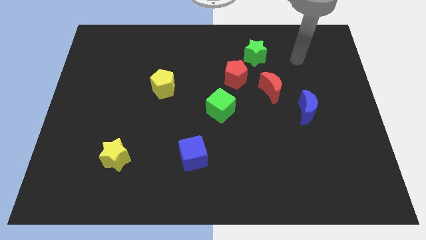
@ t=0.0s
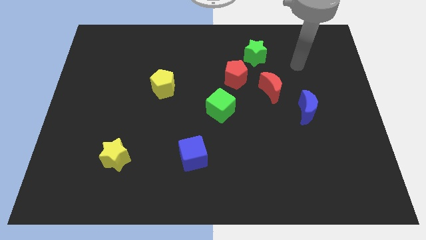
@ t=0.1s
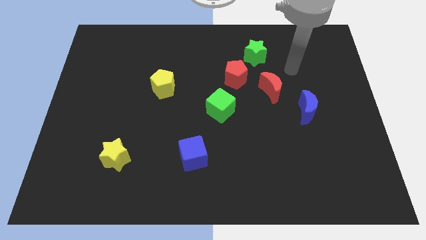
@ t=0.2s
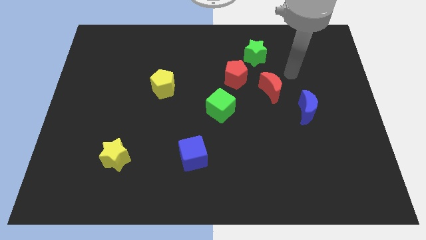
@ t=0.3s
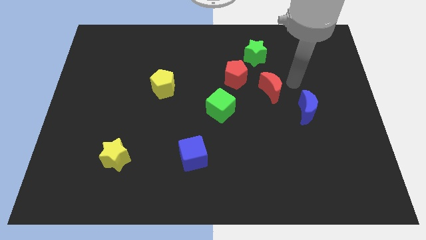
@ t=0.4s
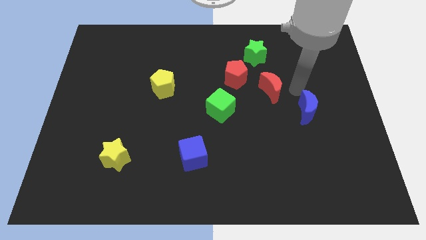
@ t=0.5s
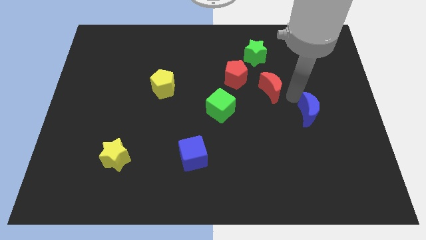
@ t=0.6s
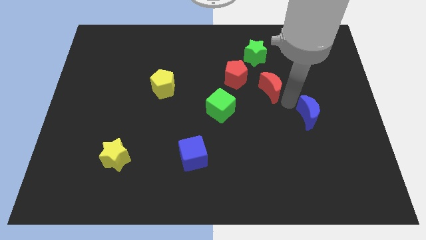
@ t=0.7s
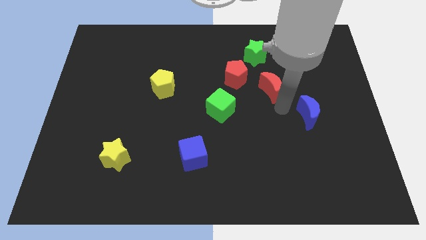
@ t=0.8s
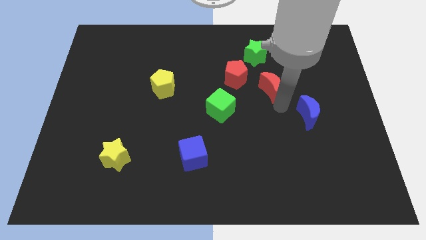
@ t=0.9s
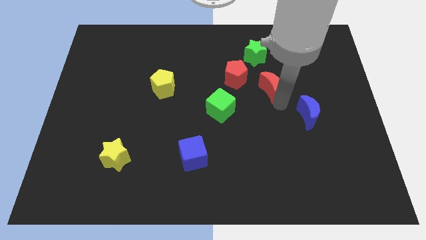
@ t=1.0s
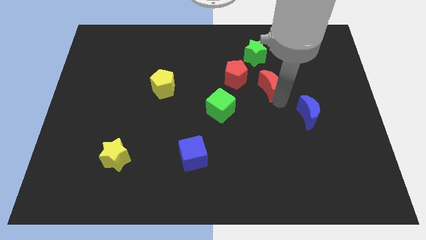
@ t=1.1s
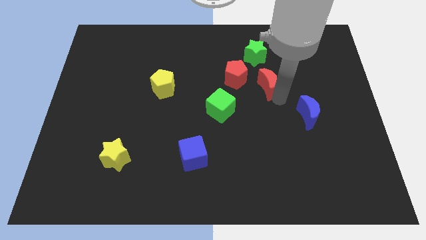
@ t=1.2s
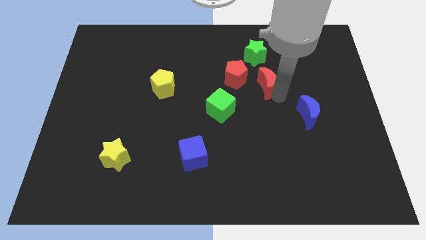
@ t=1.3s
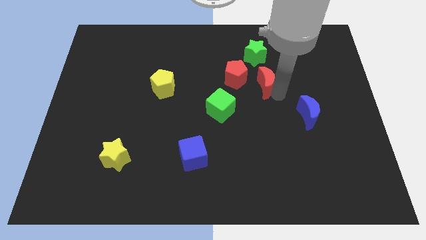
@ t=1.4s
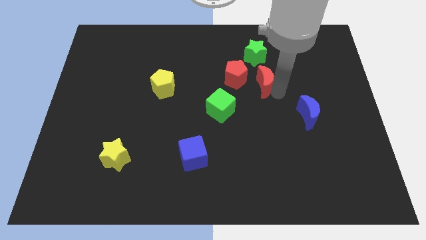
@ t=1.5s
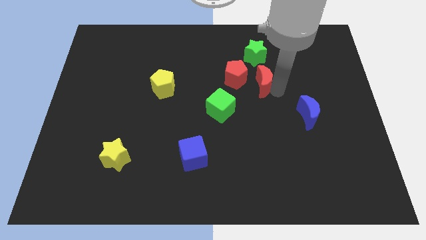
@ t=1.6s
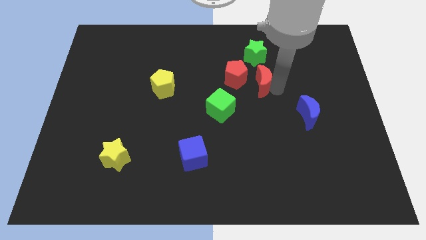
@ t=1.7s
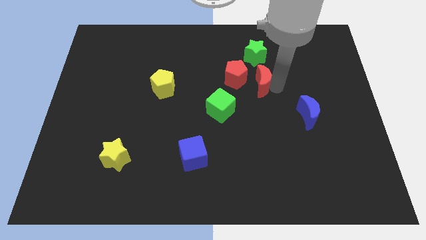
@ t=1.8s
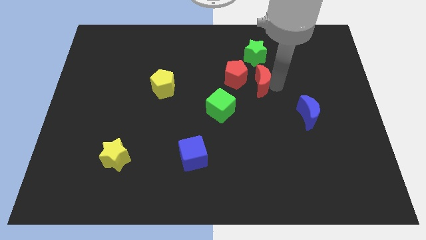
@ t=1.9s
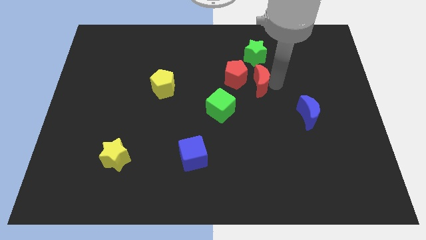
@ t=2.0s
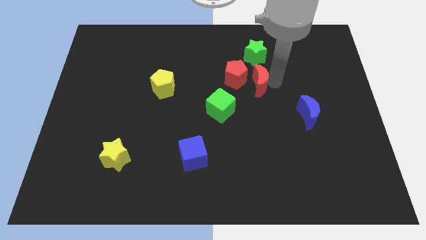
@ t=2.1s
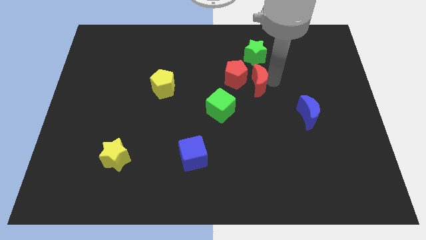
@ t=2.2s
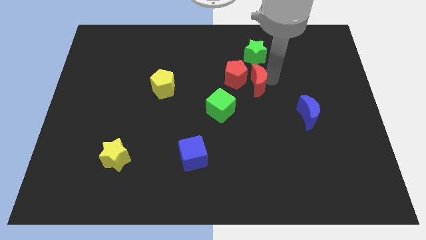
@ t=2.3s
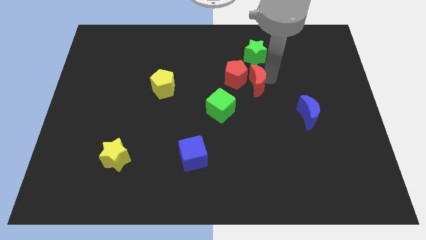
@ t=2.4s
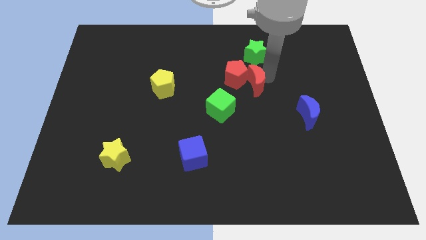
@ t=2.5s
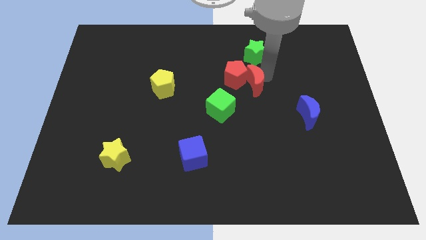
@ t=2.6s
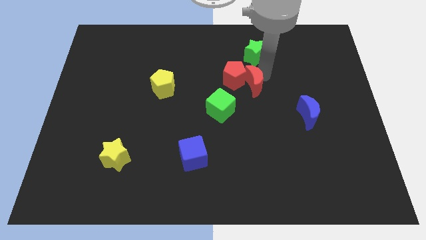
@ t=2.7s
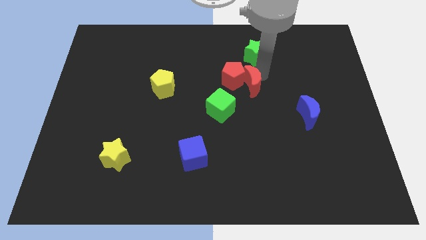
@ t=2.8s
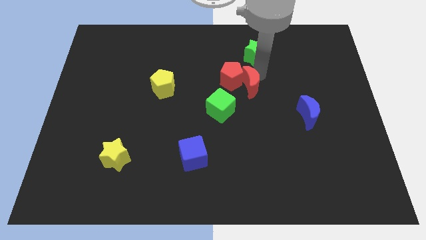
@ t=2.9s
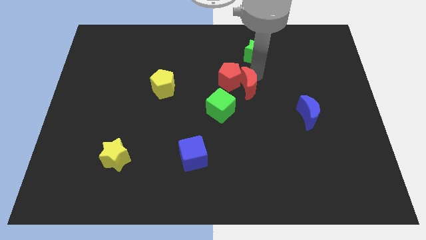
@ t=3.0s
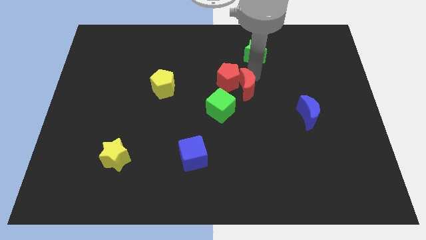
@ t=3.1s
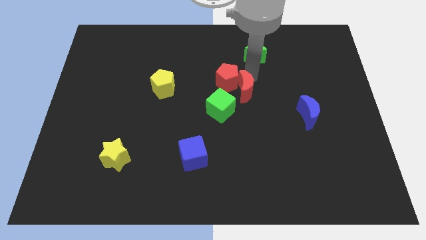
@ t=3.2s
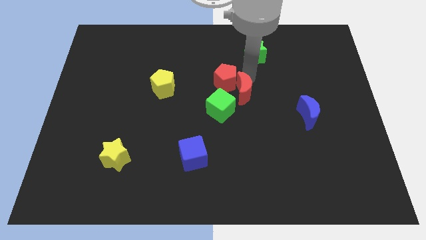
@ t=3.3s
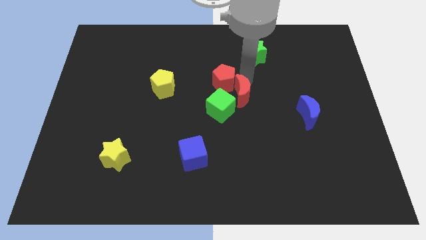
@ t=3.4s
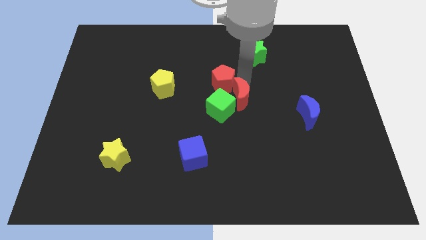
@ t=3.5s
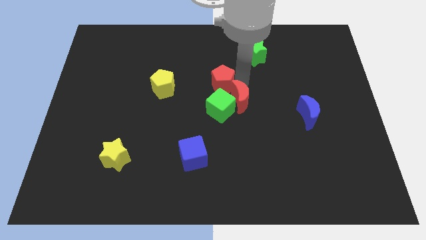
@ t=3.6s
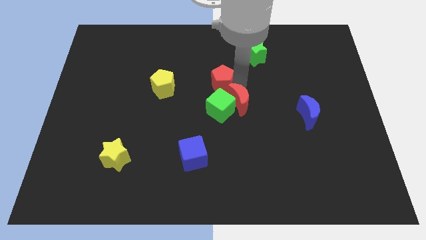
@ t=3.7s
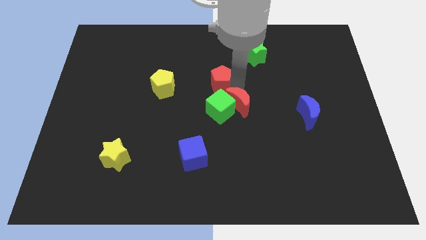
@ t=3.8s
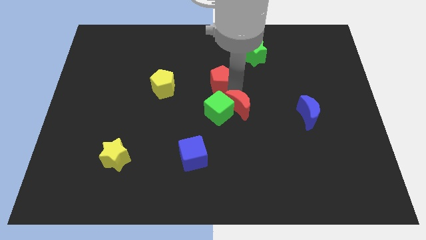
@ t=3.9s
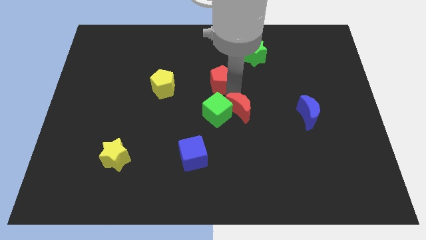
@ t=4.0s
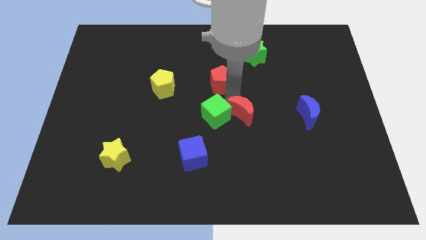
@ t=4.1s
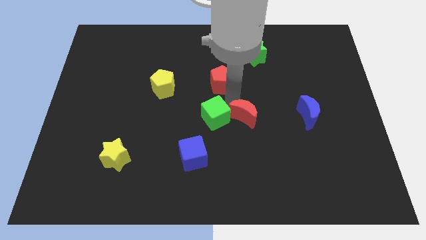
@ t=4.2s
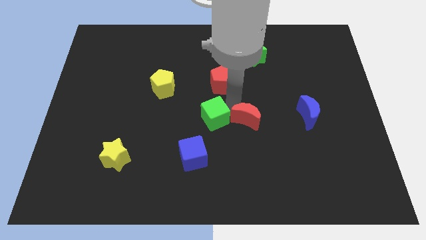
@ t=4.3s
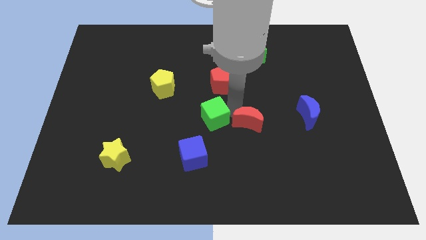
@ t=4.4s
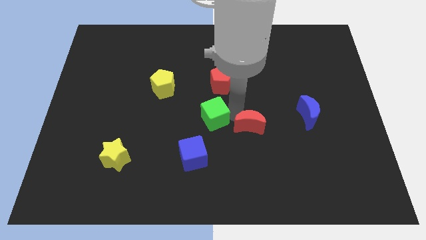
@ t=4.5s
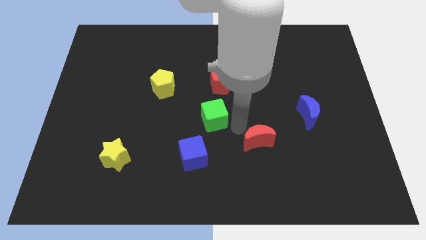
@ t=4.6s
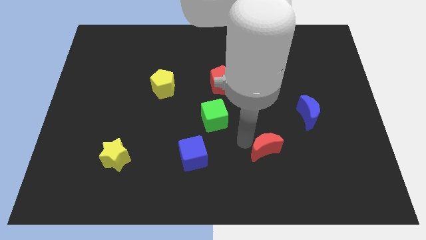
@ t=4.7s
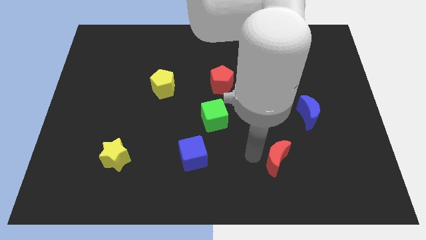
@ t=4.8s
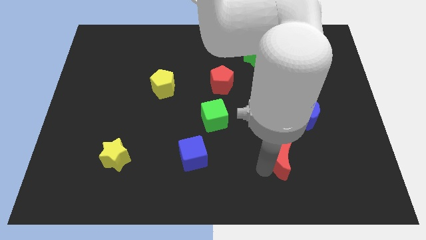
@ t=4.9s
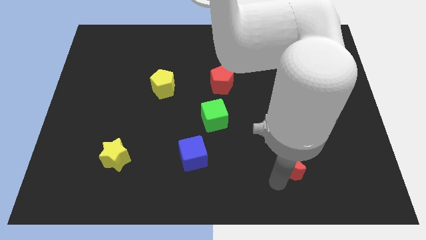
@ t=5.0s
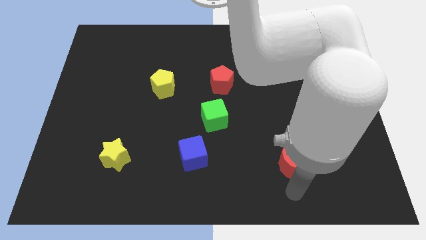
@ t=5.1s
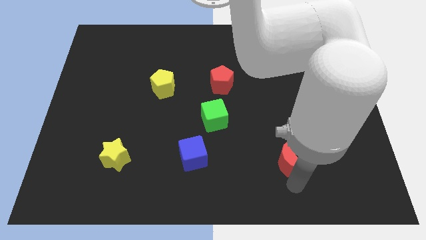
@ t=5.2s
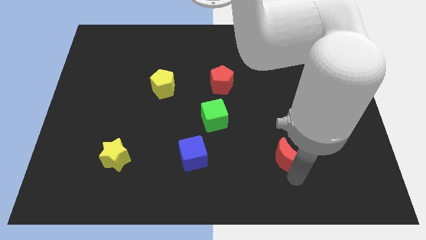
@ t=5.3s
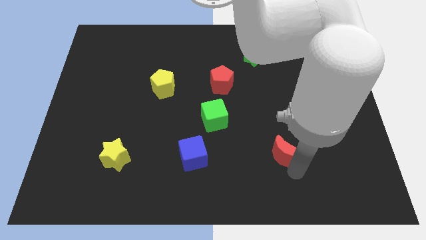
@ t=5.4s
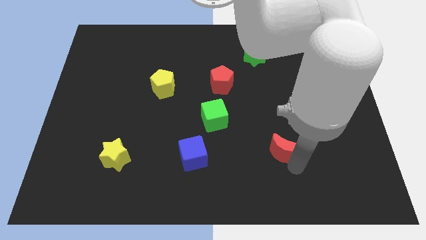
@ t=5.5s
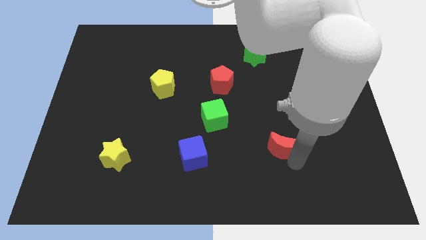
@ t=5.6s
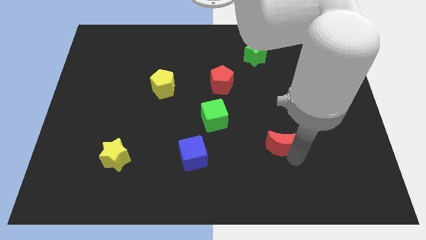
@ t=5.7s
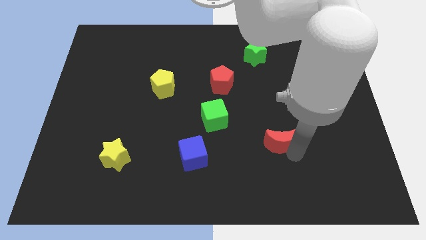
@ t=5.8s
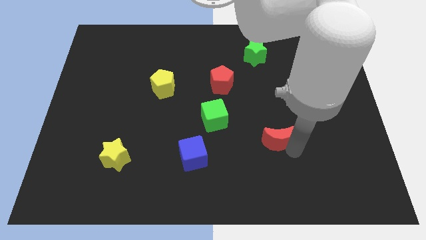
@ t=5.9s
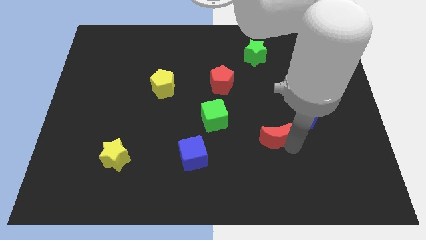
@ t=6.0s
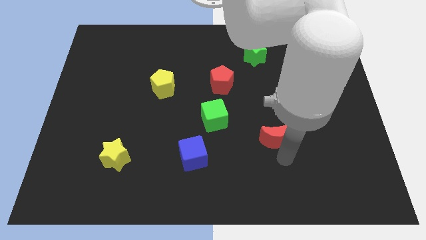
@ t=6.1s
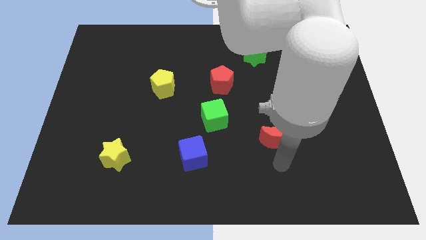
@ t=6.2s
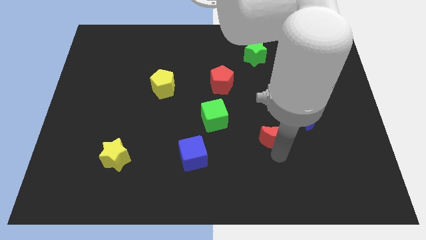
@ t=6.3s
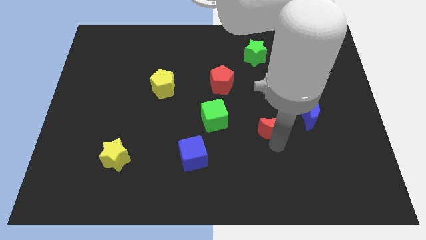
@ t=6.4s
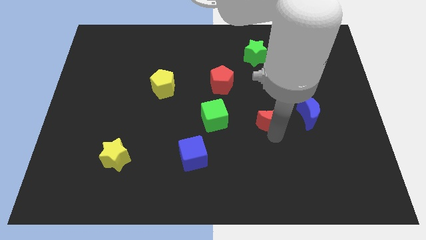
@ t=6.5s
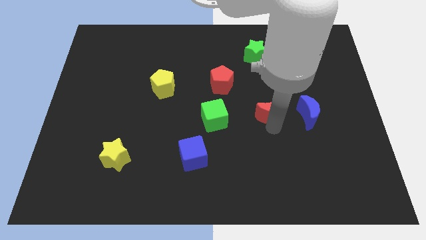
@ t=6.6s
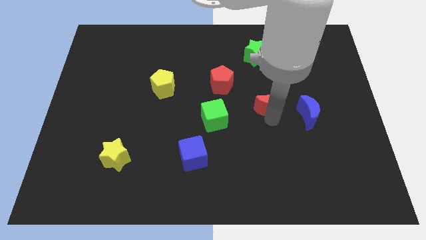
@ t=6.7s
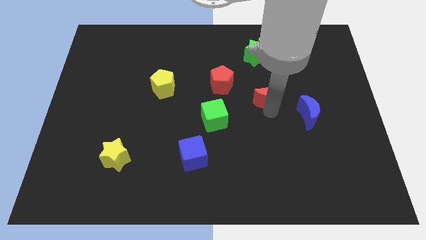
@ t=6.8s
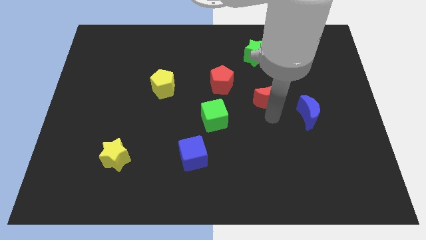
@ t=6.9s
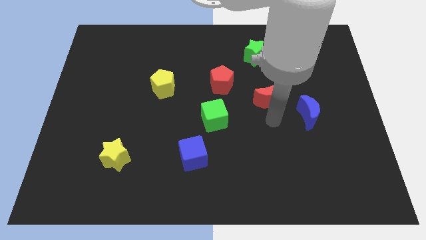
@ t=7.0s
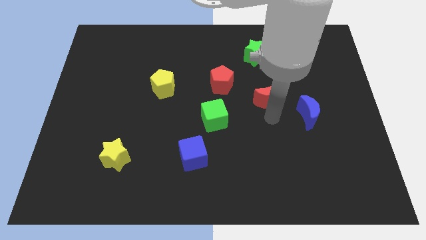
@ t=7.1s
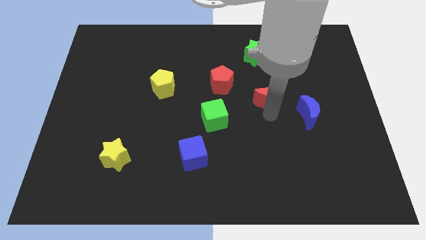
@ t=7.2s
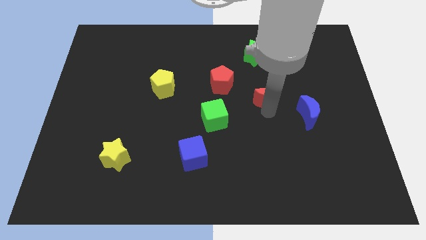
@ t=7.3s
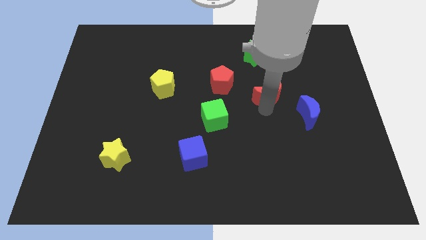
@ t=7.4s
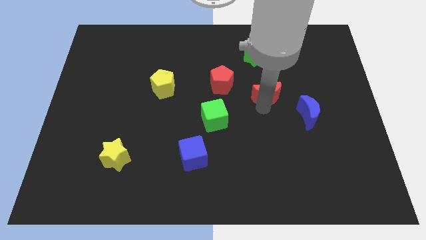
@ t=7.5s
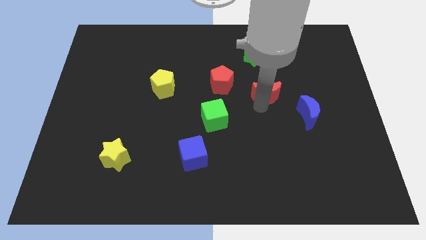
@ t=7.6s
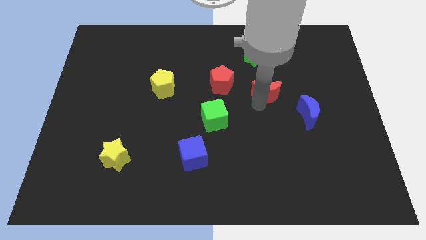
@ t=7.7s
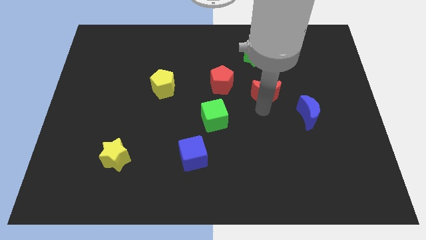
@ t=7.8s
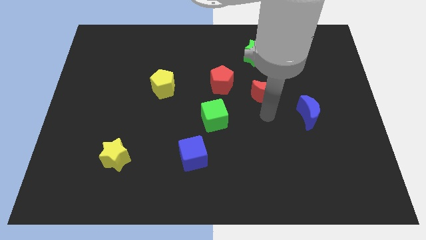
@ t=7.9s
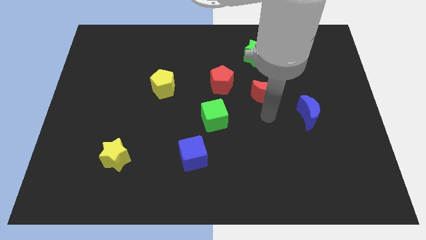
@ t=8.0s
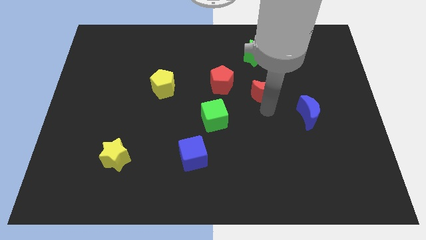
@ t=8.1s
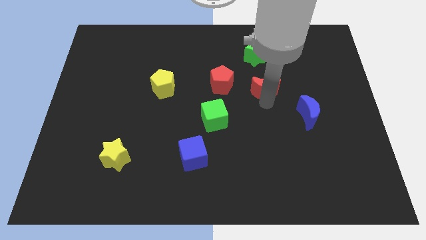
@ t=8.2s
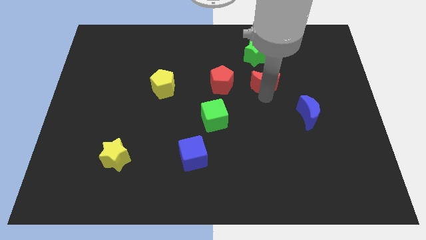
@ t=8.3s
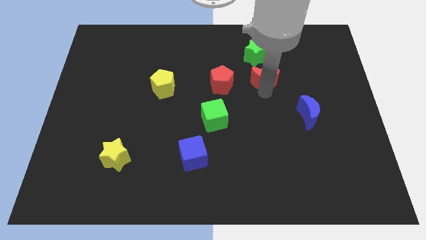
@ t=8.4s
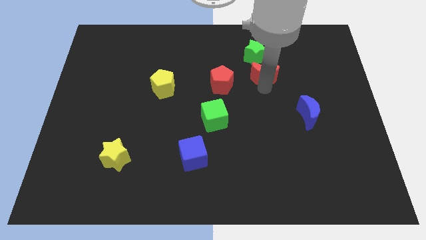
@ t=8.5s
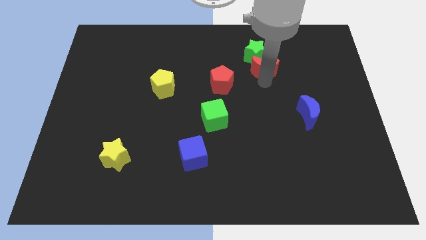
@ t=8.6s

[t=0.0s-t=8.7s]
slide the red moon towards the green star
